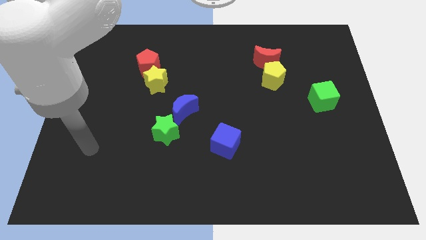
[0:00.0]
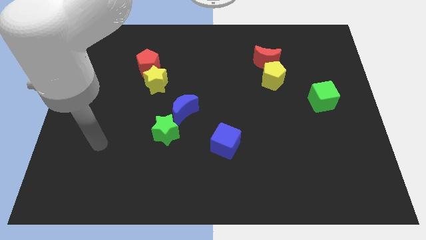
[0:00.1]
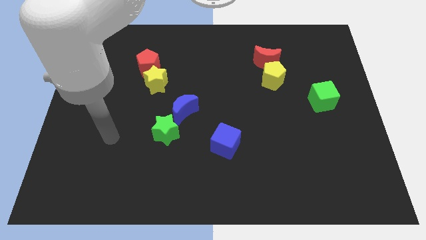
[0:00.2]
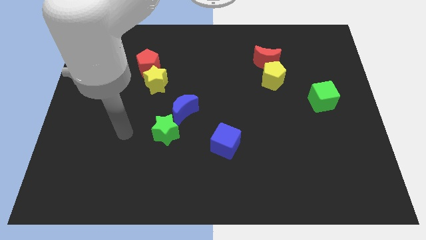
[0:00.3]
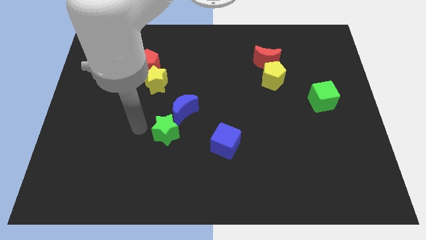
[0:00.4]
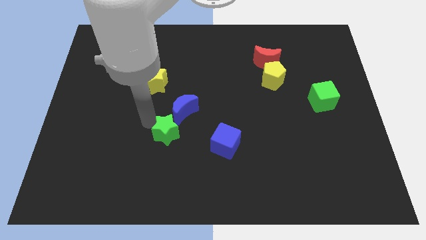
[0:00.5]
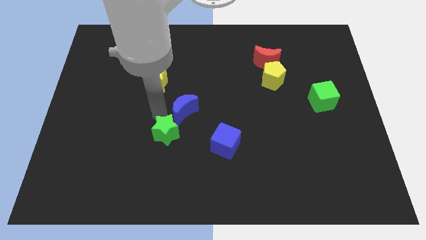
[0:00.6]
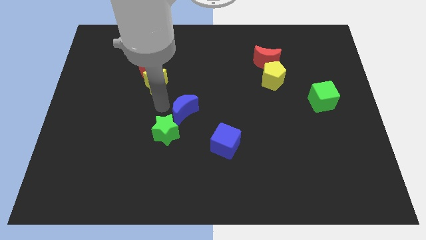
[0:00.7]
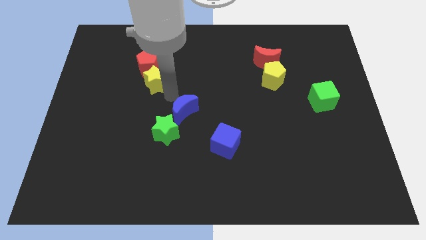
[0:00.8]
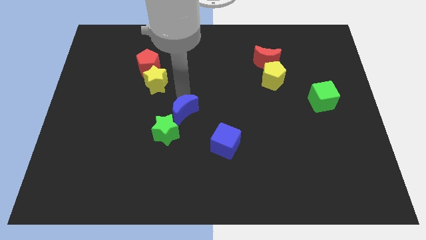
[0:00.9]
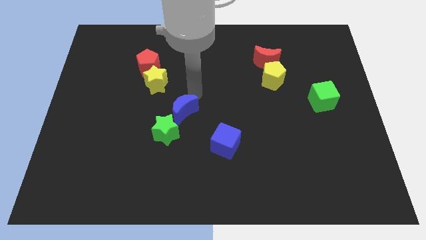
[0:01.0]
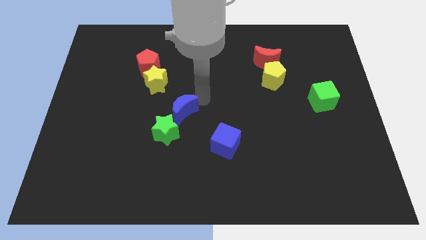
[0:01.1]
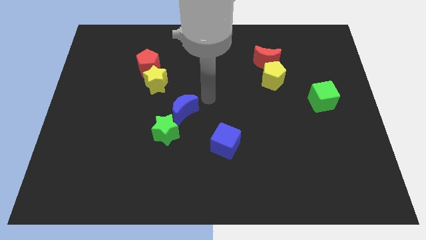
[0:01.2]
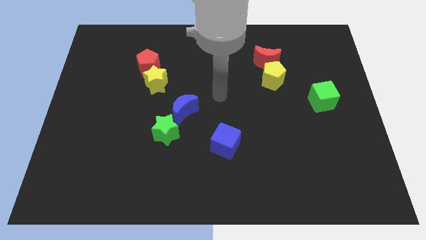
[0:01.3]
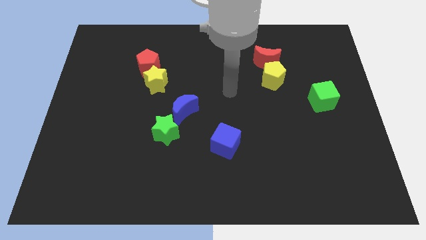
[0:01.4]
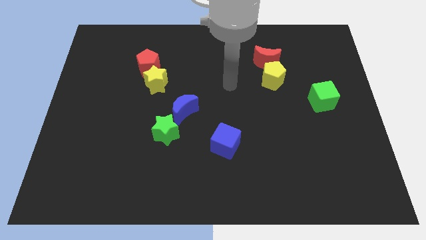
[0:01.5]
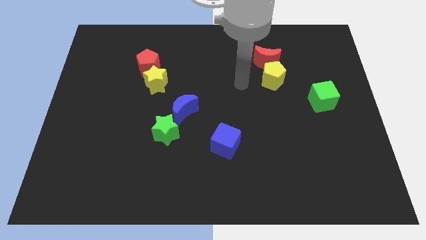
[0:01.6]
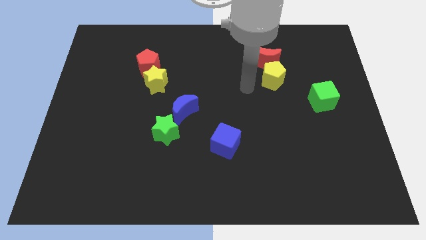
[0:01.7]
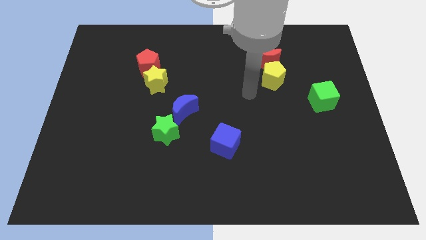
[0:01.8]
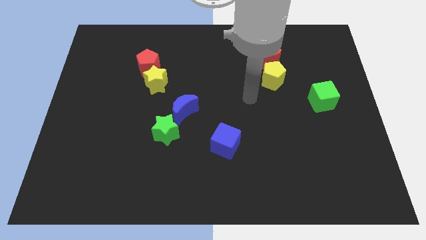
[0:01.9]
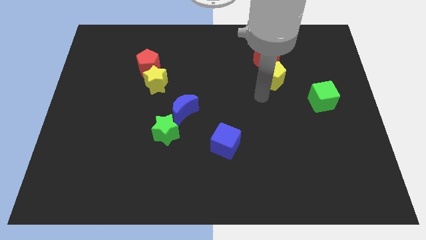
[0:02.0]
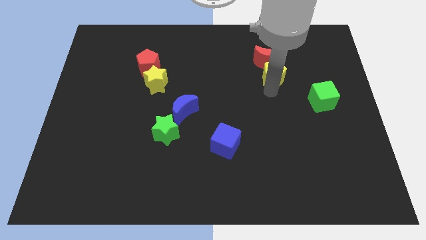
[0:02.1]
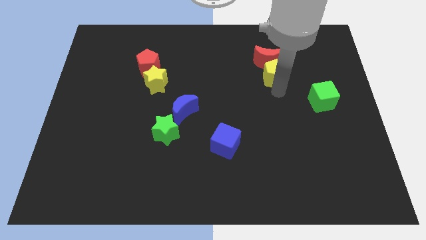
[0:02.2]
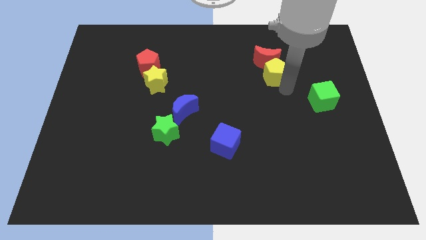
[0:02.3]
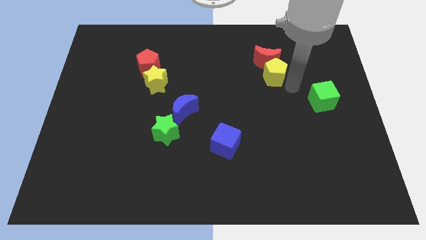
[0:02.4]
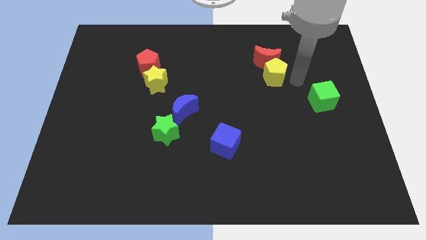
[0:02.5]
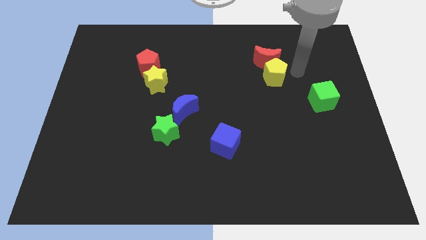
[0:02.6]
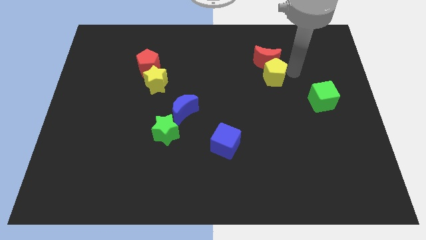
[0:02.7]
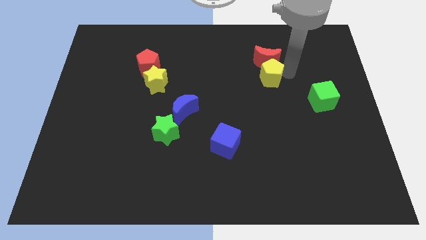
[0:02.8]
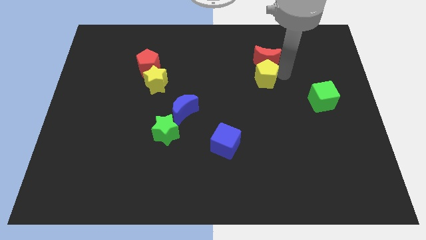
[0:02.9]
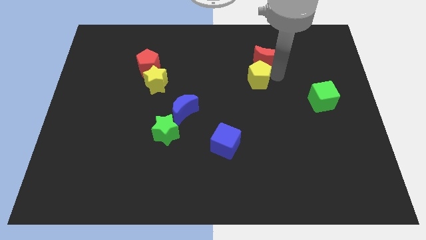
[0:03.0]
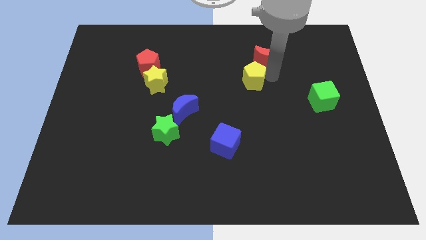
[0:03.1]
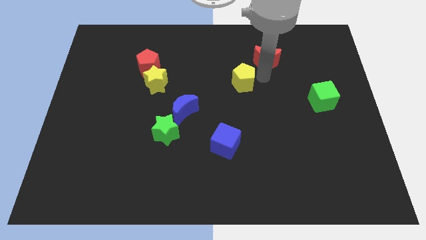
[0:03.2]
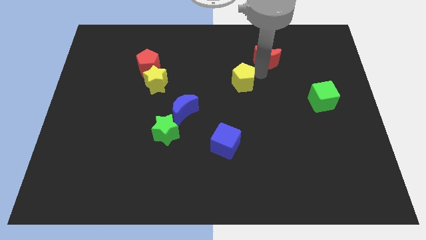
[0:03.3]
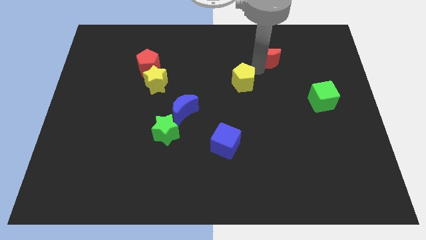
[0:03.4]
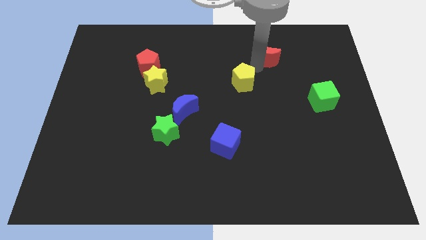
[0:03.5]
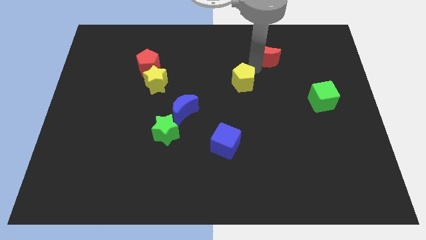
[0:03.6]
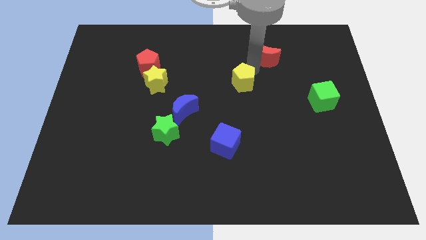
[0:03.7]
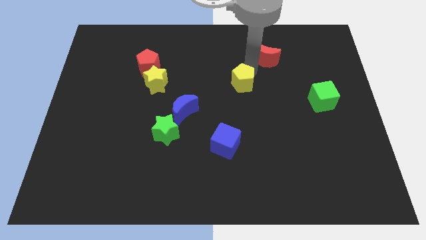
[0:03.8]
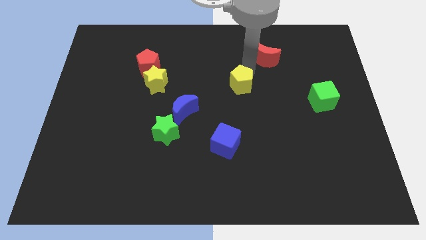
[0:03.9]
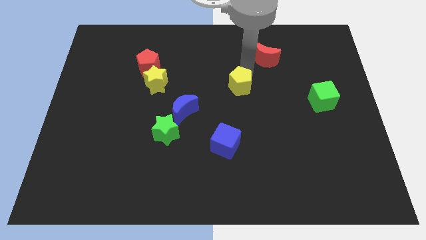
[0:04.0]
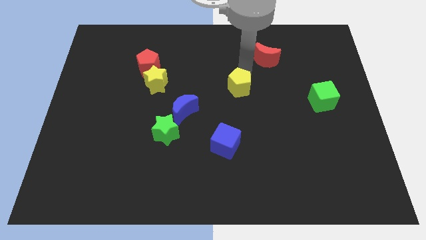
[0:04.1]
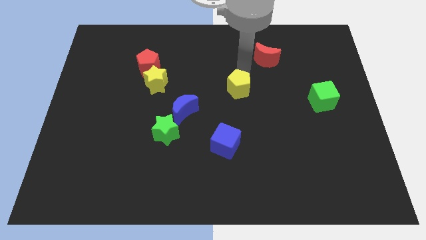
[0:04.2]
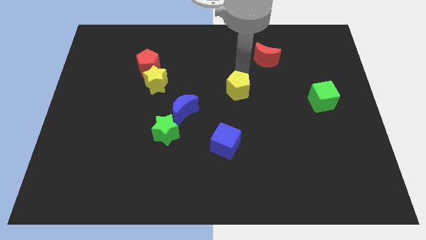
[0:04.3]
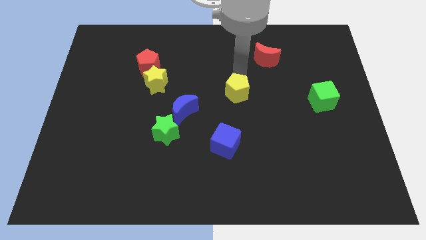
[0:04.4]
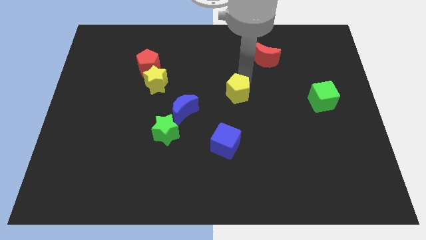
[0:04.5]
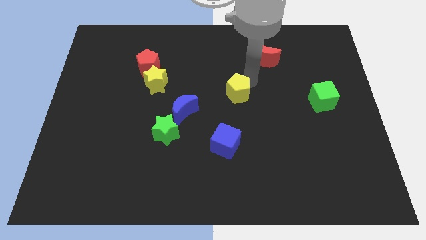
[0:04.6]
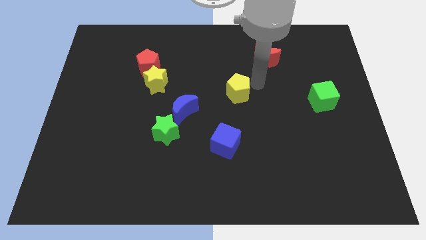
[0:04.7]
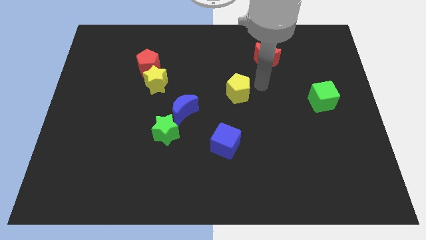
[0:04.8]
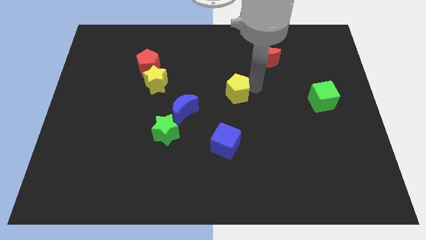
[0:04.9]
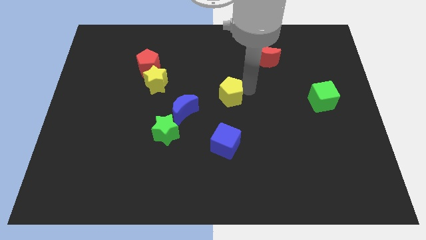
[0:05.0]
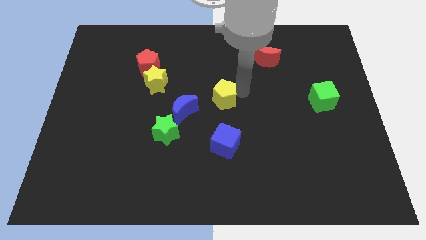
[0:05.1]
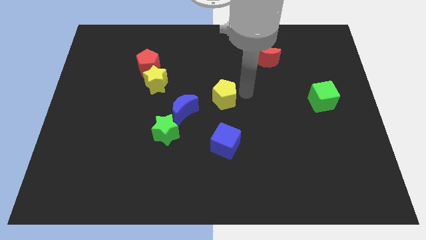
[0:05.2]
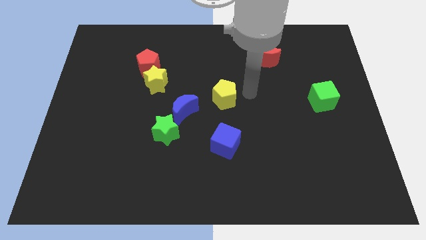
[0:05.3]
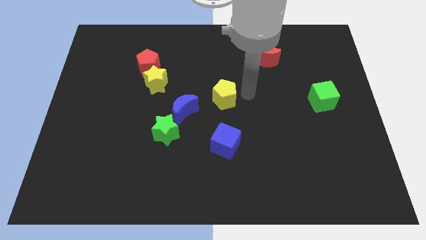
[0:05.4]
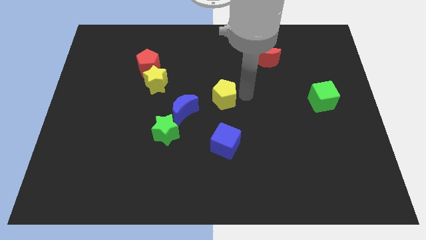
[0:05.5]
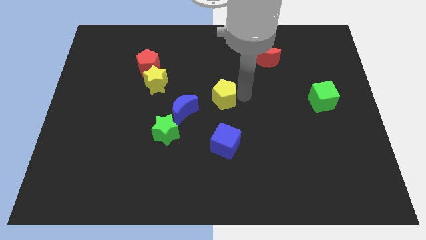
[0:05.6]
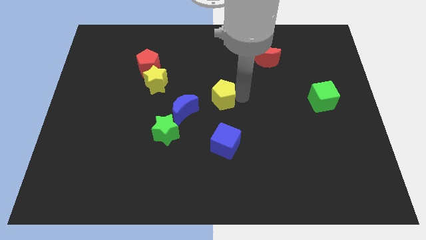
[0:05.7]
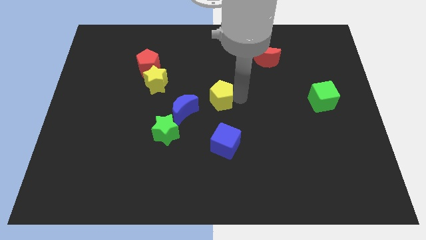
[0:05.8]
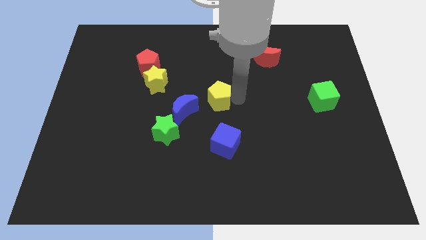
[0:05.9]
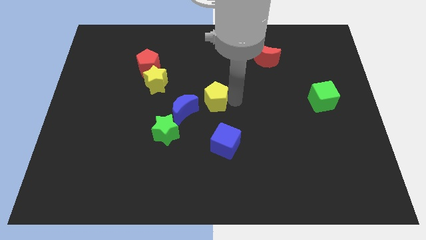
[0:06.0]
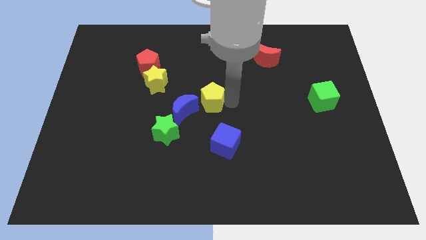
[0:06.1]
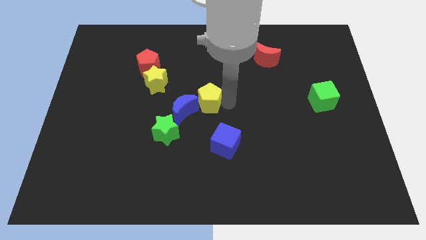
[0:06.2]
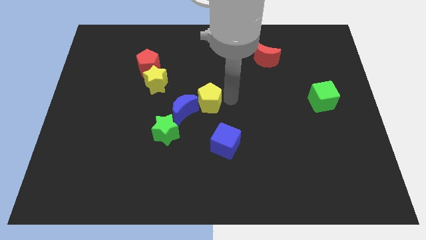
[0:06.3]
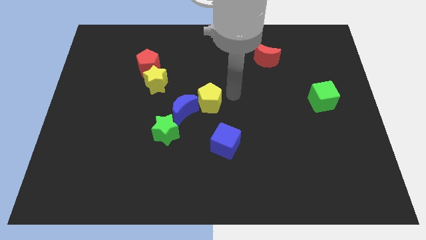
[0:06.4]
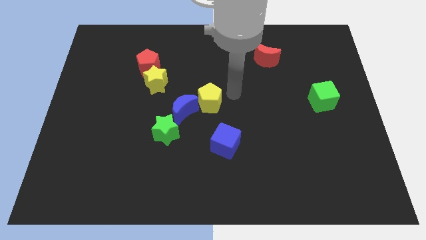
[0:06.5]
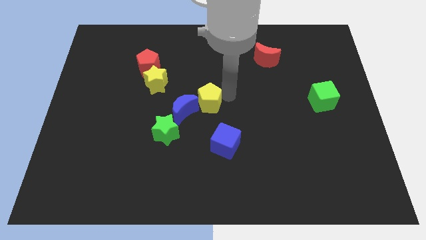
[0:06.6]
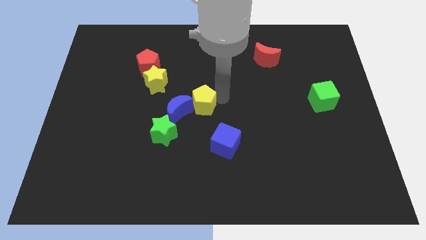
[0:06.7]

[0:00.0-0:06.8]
push the yellow pentagon towards the blue moon
